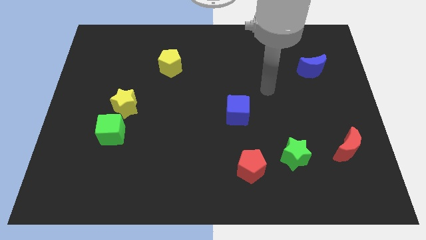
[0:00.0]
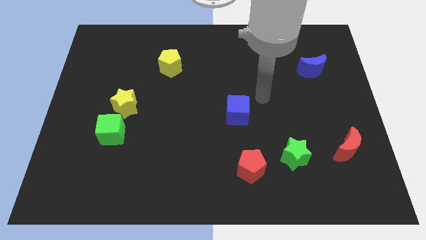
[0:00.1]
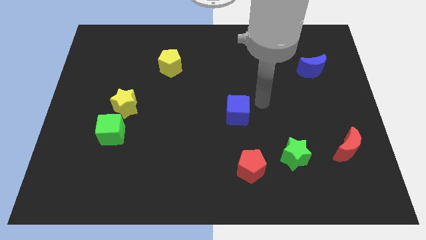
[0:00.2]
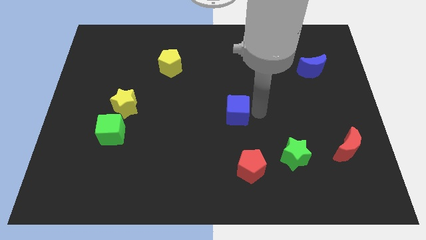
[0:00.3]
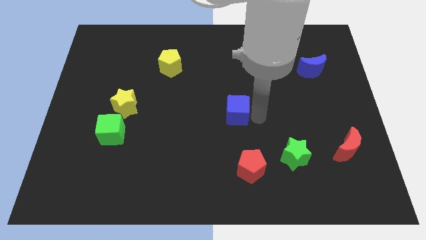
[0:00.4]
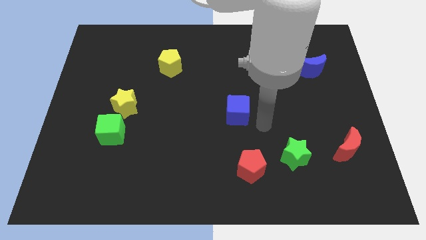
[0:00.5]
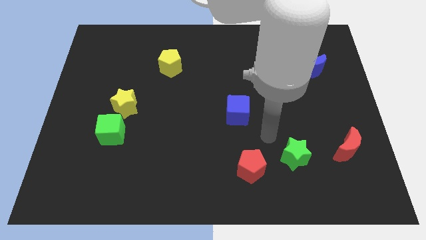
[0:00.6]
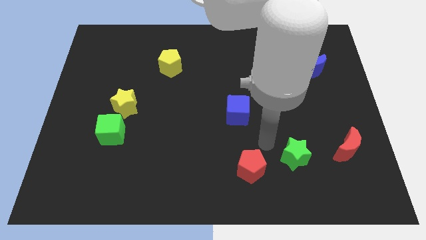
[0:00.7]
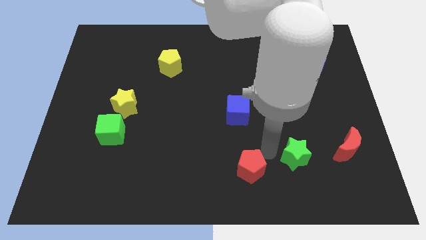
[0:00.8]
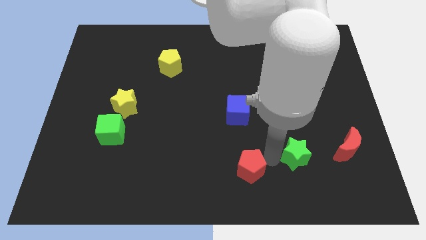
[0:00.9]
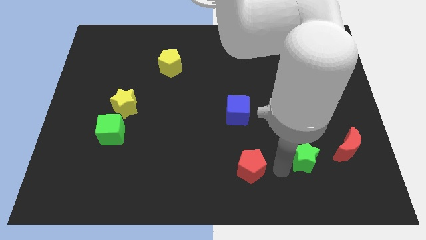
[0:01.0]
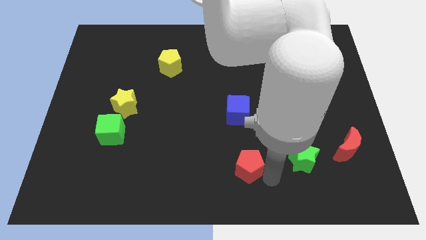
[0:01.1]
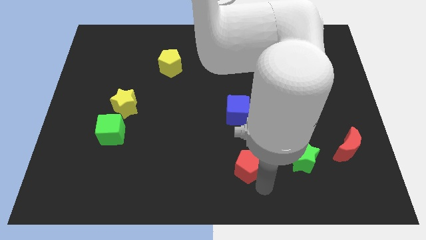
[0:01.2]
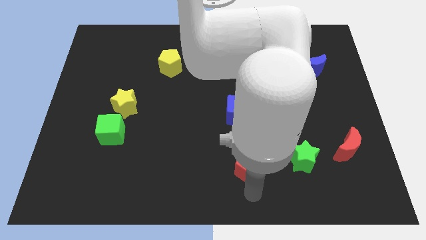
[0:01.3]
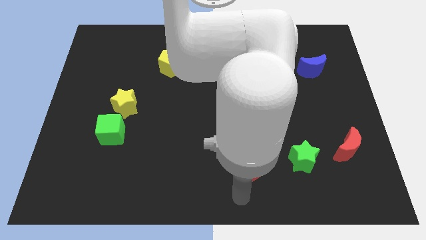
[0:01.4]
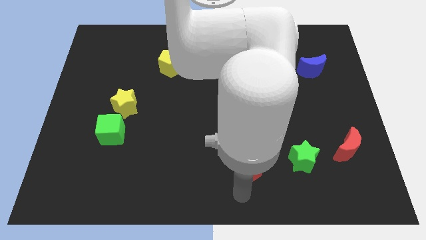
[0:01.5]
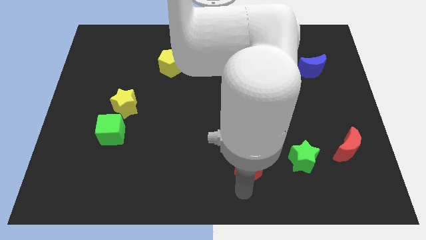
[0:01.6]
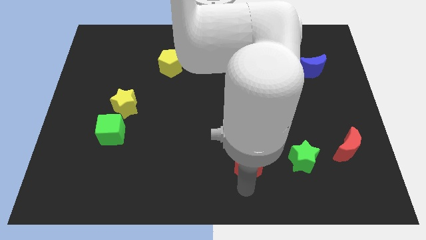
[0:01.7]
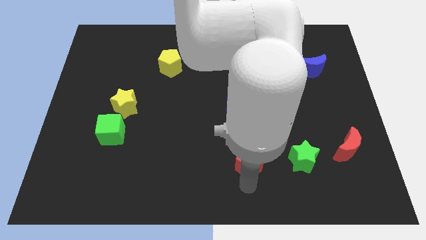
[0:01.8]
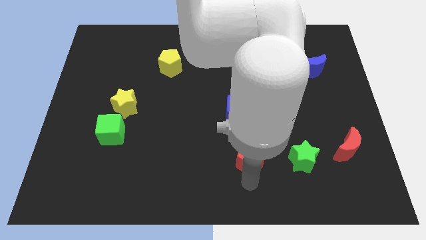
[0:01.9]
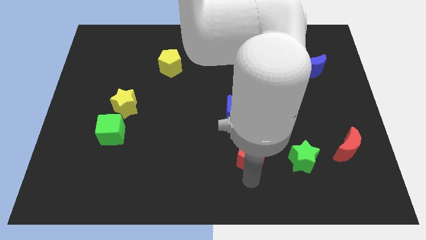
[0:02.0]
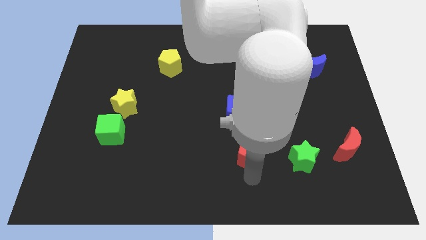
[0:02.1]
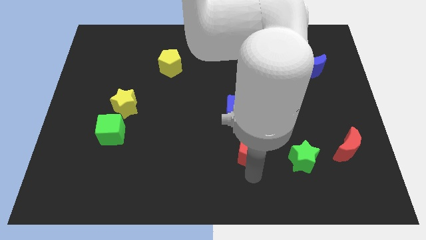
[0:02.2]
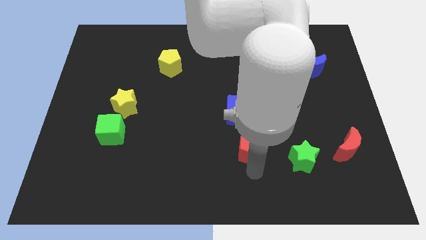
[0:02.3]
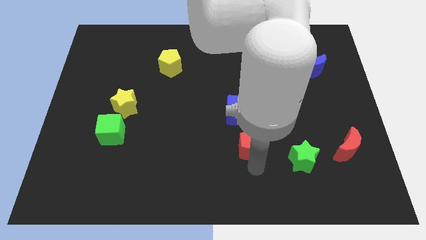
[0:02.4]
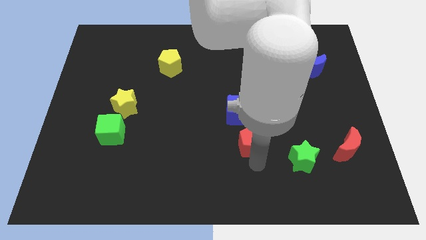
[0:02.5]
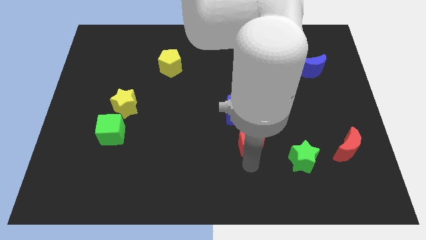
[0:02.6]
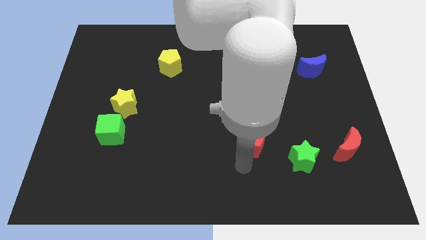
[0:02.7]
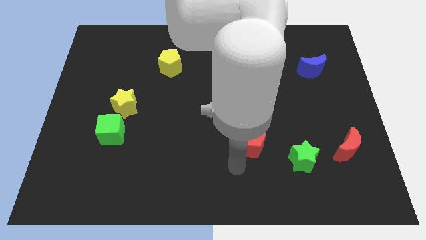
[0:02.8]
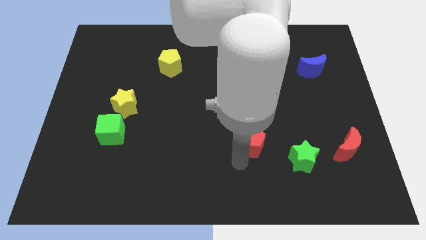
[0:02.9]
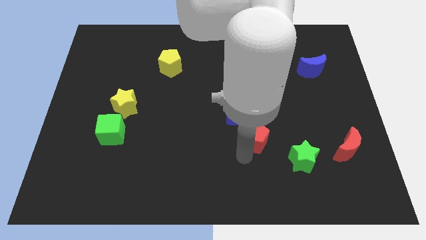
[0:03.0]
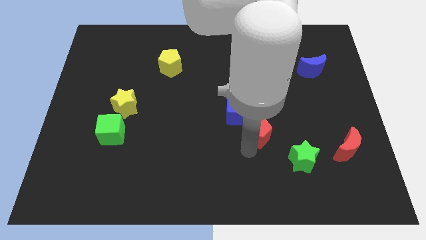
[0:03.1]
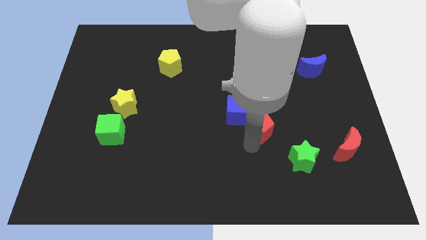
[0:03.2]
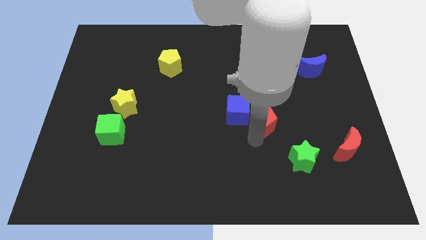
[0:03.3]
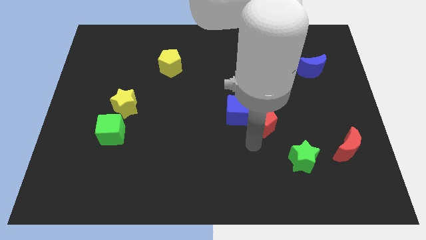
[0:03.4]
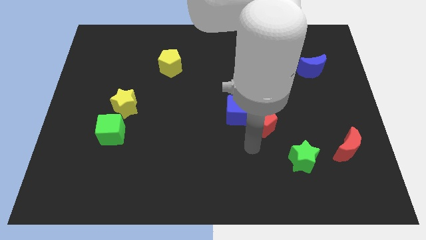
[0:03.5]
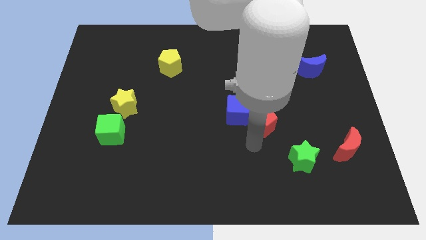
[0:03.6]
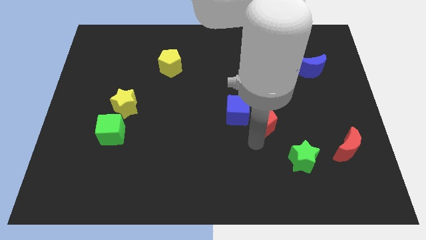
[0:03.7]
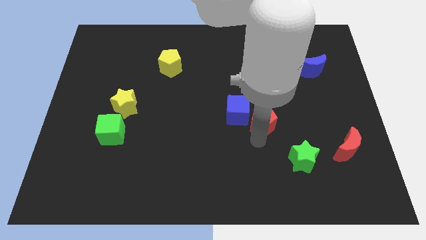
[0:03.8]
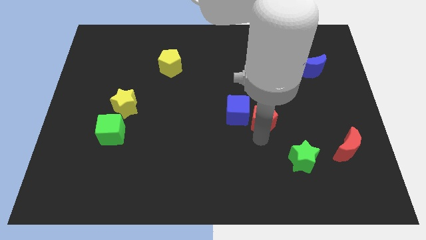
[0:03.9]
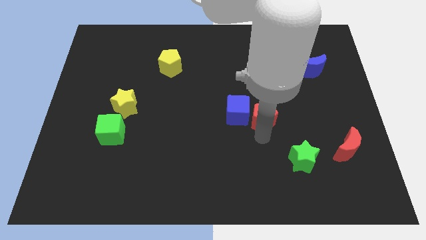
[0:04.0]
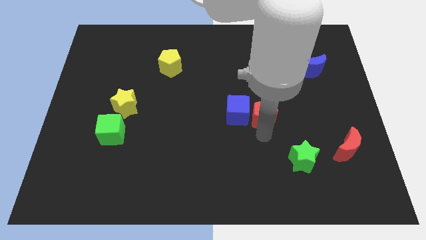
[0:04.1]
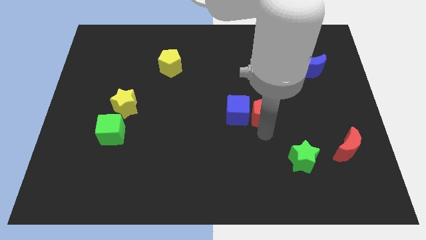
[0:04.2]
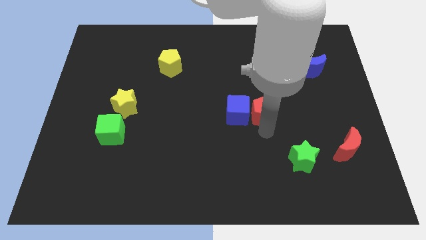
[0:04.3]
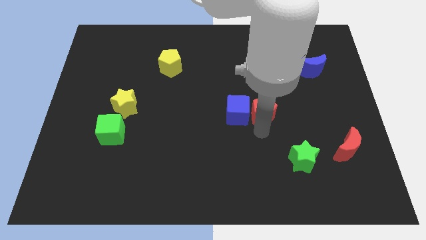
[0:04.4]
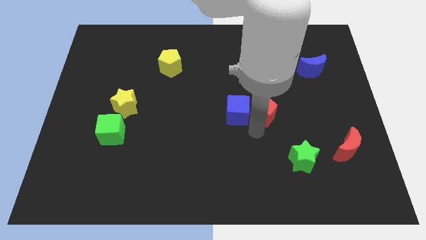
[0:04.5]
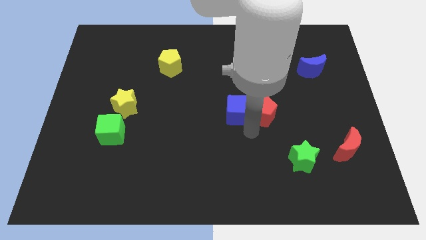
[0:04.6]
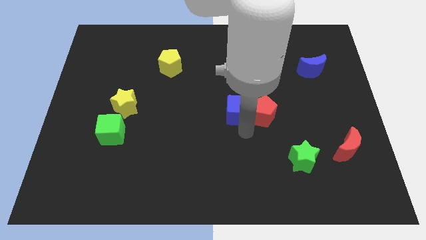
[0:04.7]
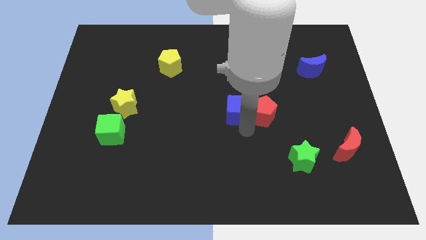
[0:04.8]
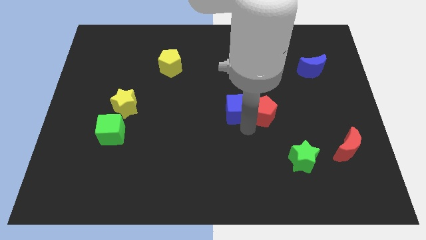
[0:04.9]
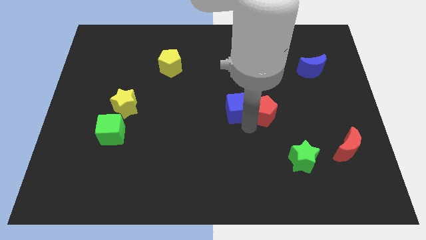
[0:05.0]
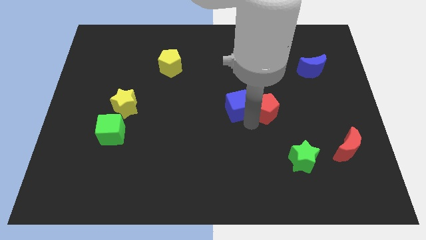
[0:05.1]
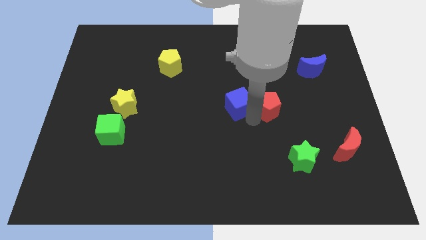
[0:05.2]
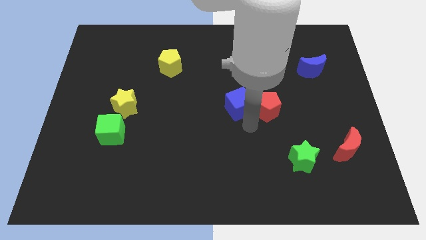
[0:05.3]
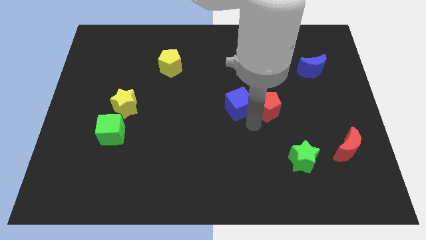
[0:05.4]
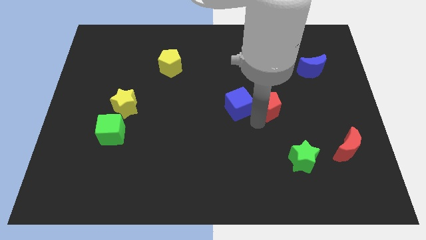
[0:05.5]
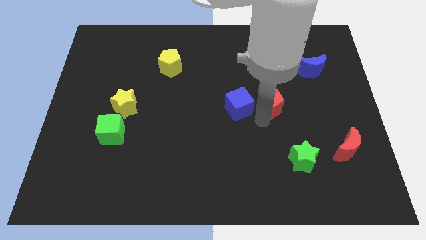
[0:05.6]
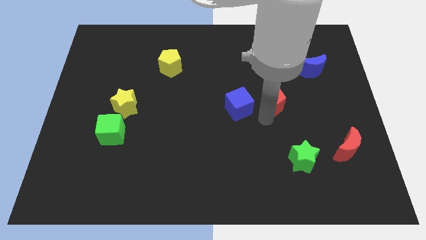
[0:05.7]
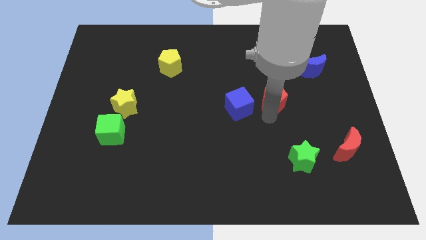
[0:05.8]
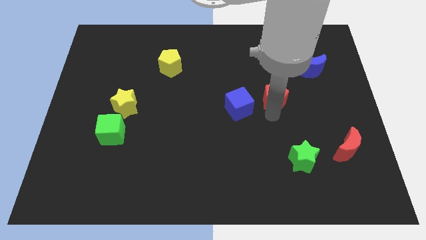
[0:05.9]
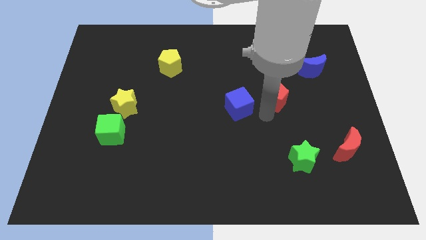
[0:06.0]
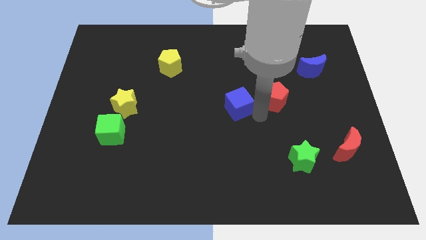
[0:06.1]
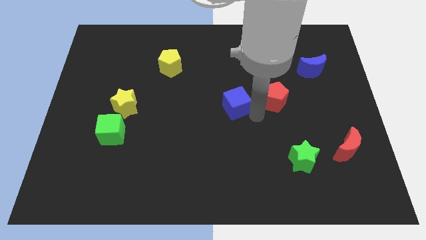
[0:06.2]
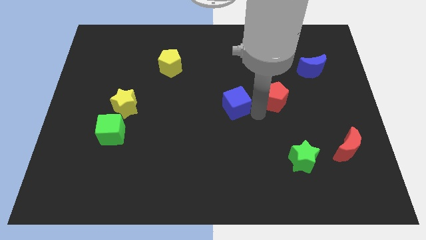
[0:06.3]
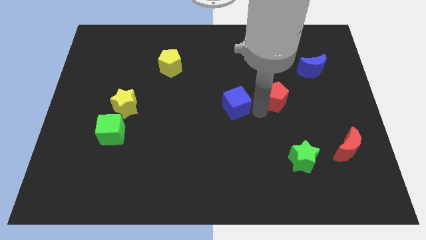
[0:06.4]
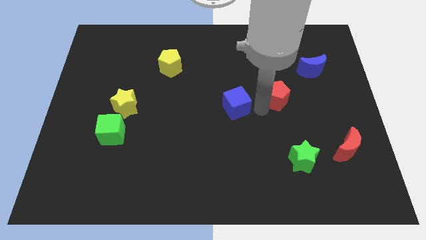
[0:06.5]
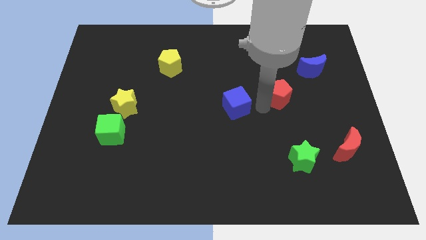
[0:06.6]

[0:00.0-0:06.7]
move the red pentagon to the bottom left of the blue moon

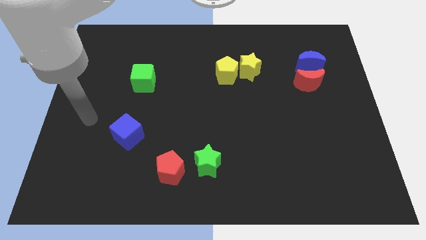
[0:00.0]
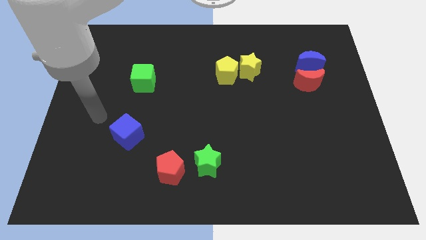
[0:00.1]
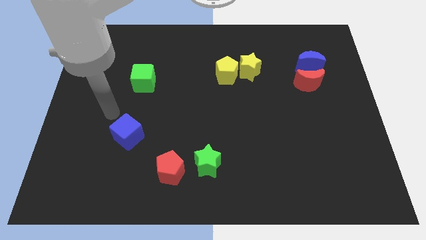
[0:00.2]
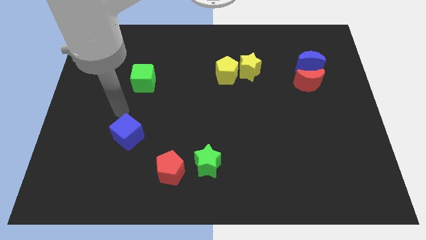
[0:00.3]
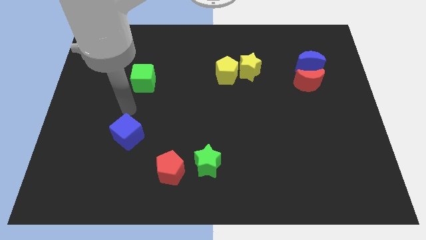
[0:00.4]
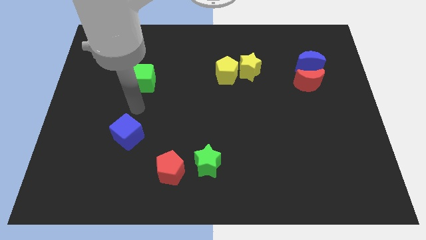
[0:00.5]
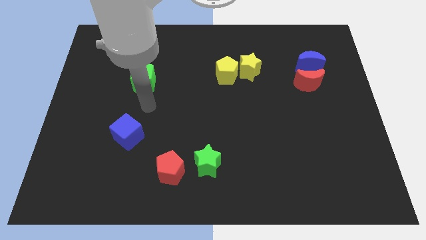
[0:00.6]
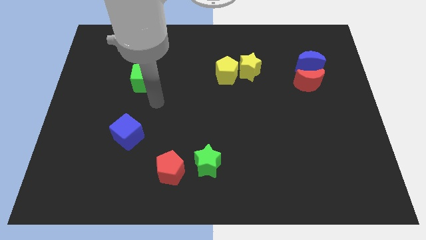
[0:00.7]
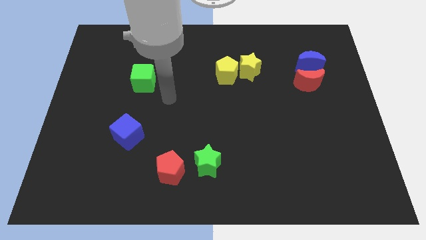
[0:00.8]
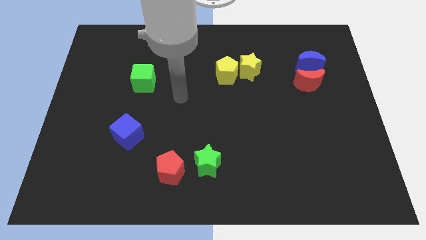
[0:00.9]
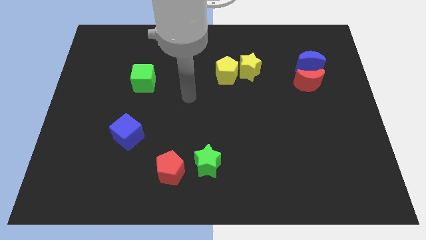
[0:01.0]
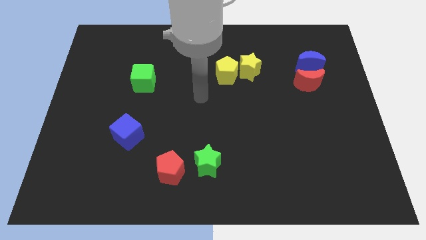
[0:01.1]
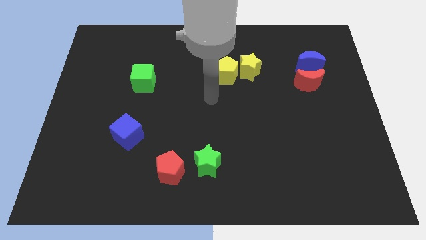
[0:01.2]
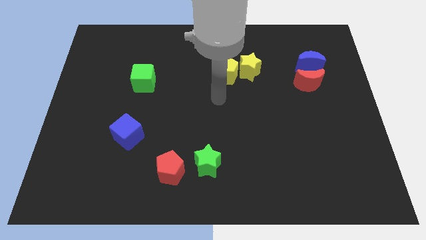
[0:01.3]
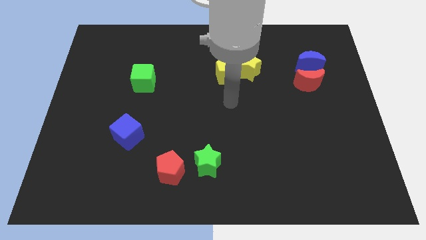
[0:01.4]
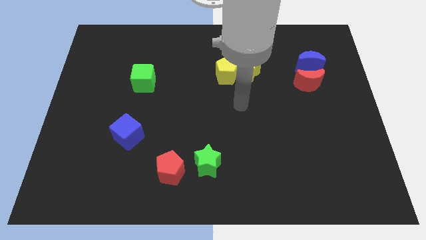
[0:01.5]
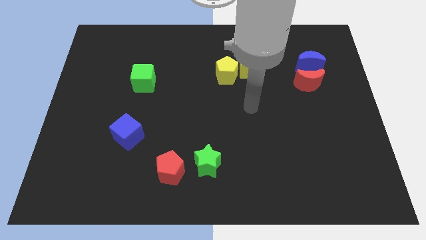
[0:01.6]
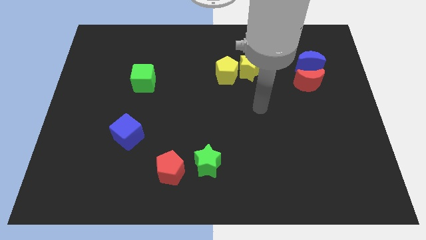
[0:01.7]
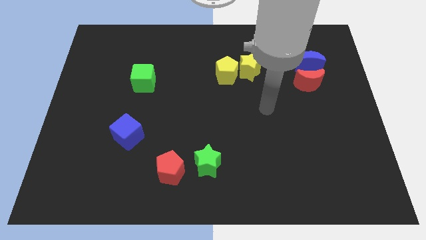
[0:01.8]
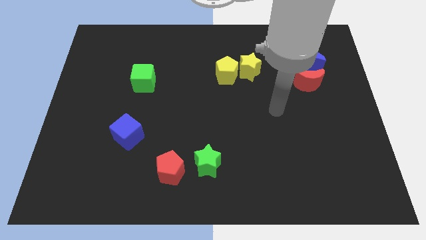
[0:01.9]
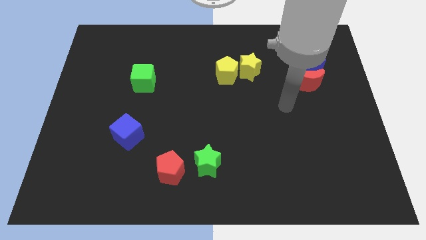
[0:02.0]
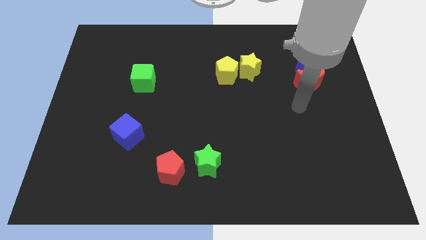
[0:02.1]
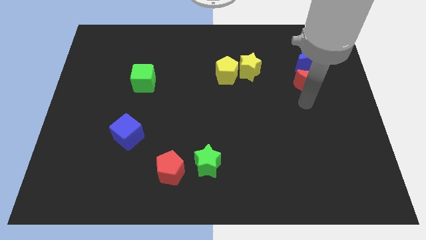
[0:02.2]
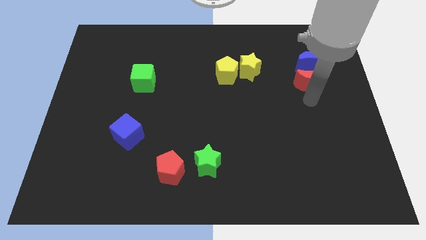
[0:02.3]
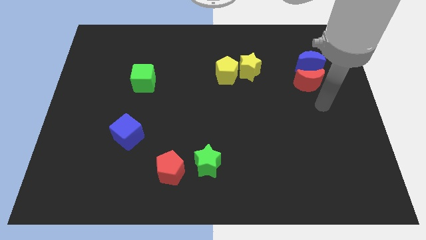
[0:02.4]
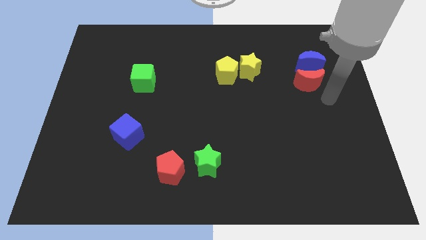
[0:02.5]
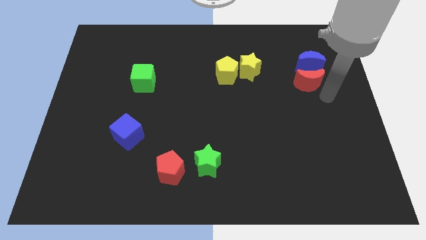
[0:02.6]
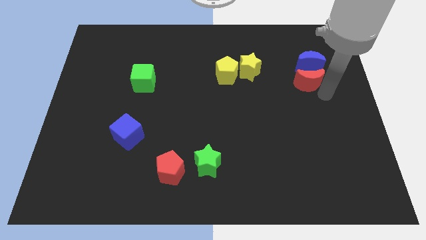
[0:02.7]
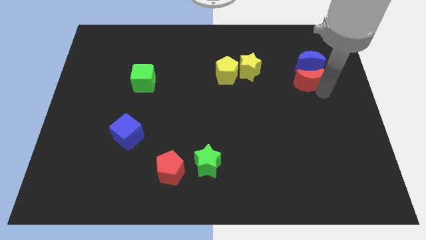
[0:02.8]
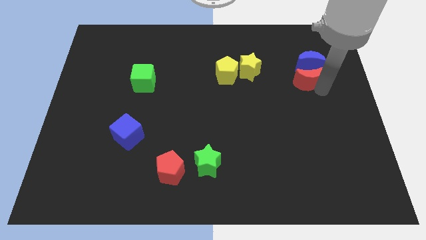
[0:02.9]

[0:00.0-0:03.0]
push the red moon to the right of the yellow star
